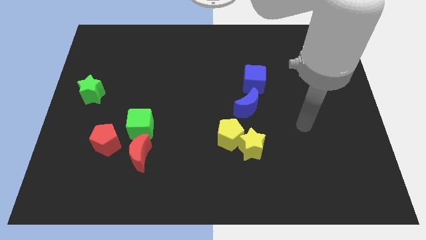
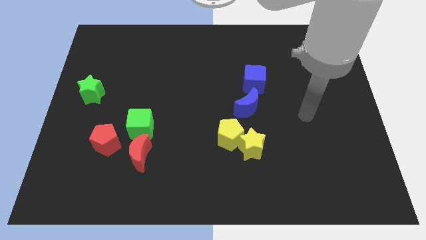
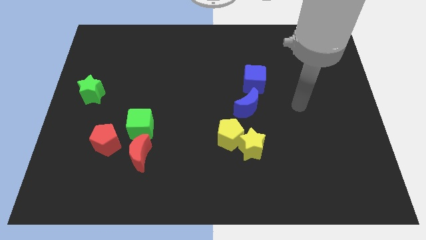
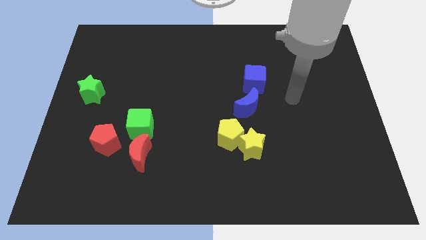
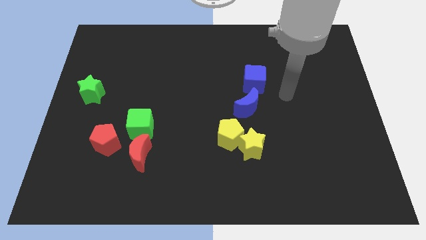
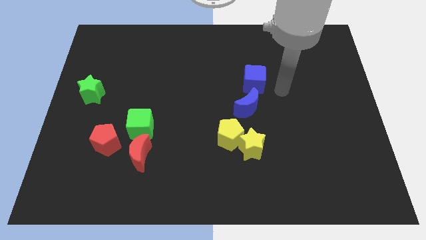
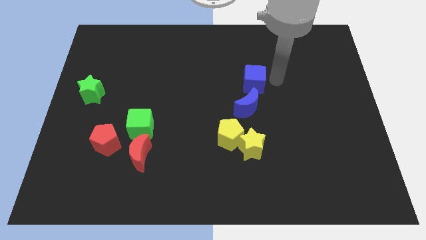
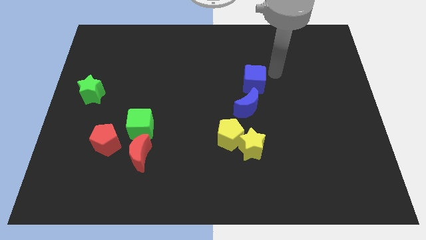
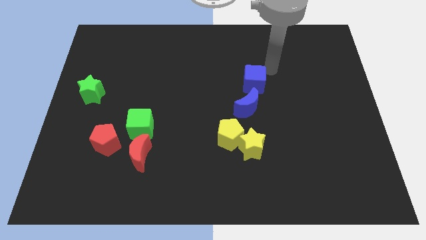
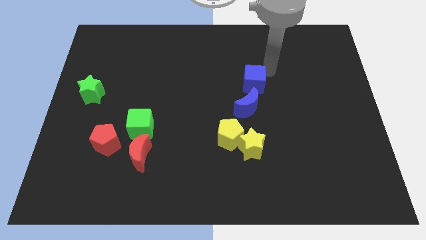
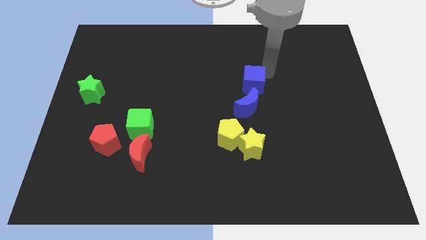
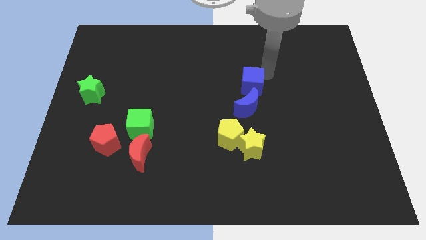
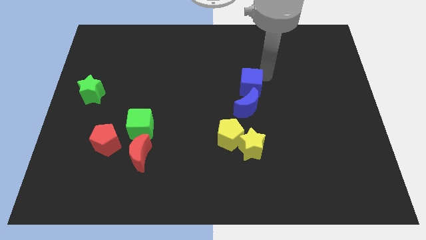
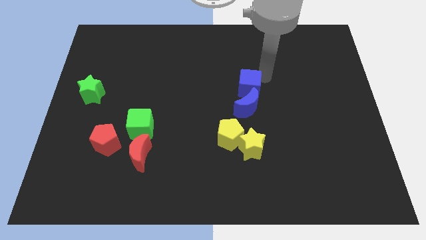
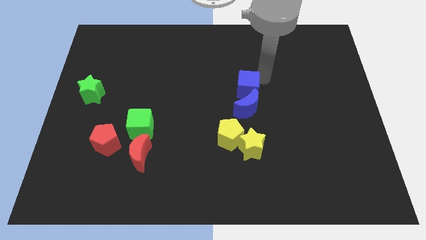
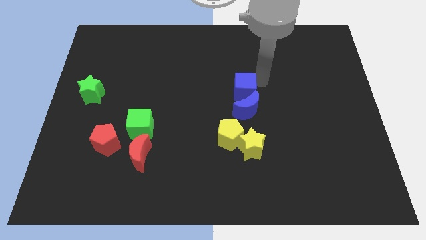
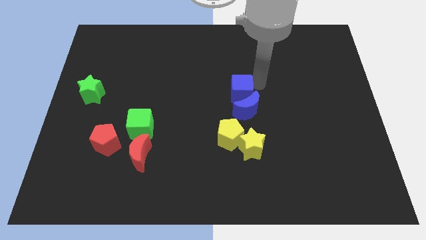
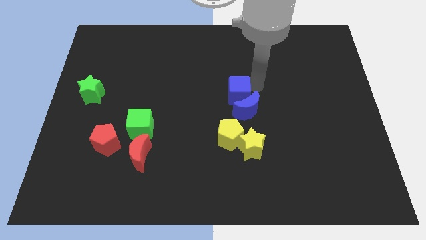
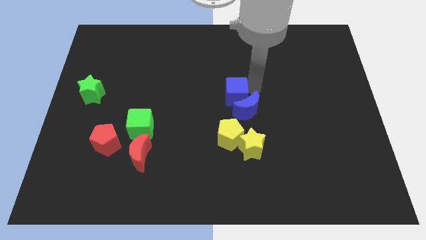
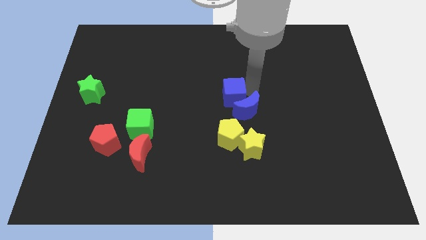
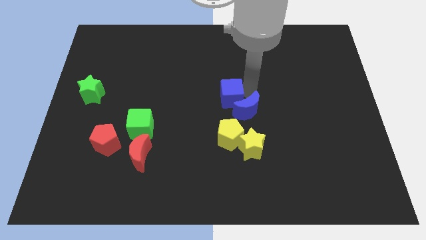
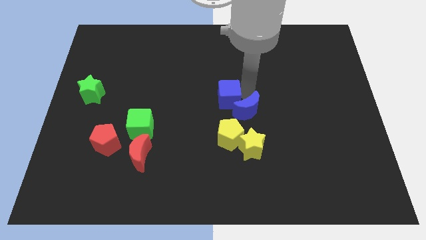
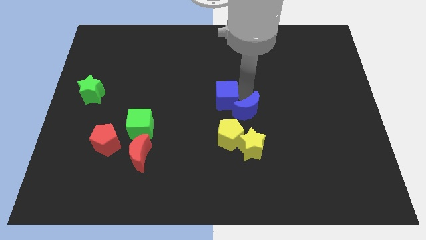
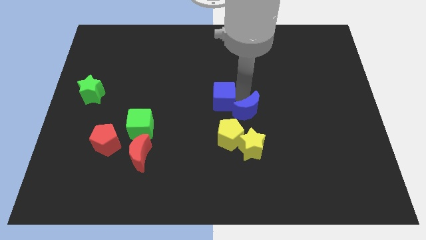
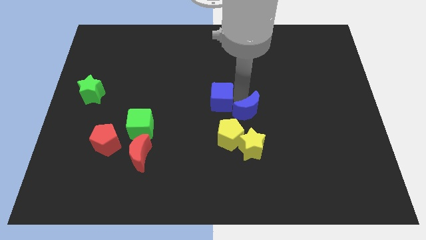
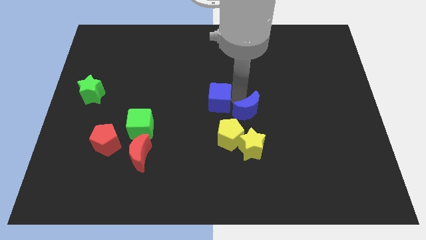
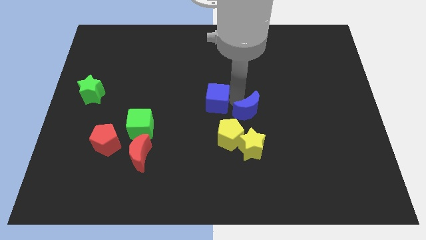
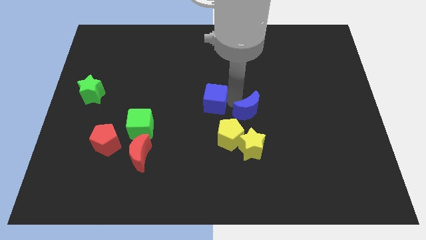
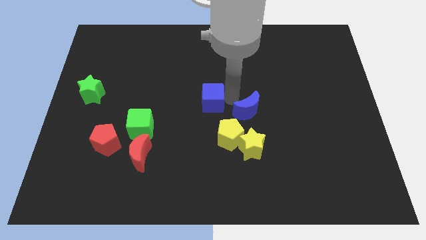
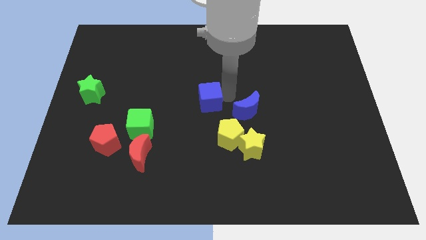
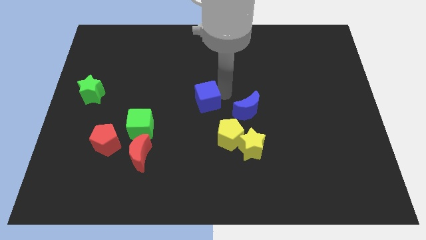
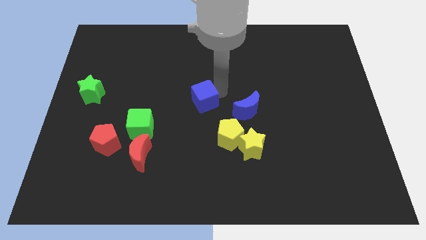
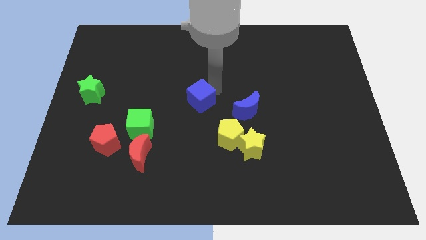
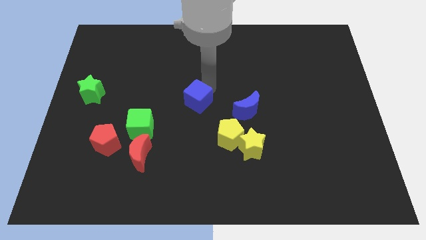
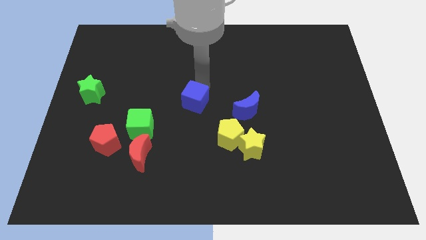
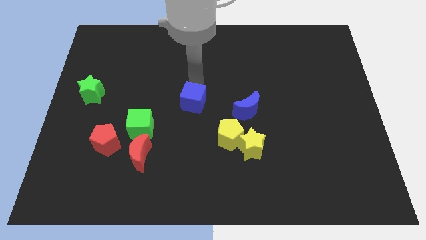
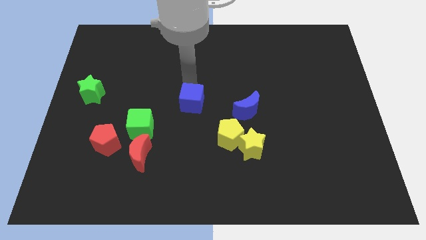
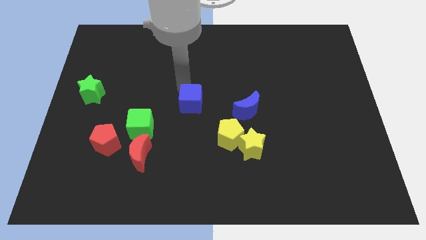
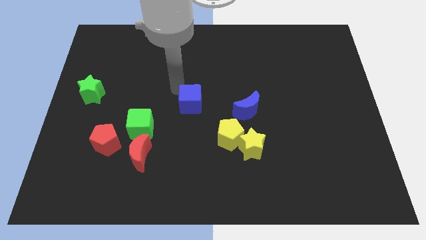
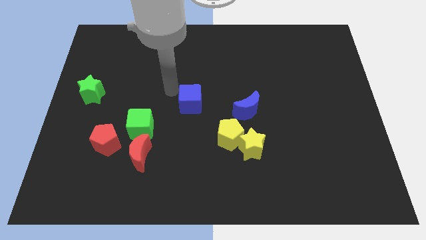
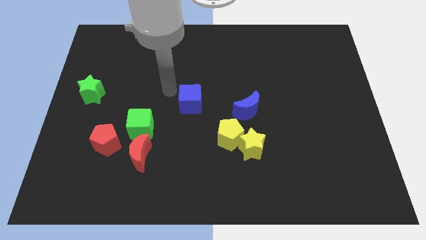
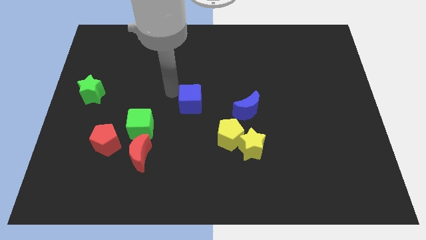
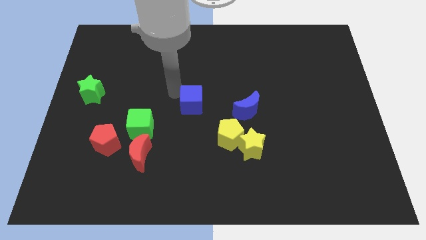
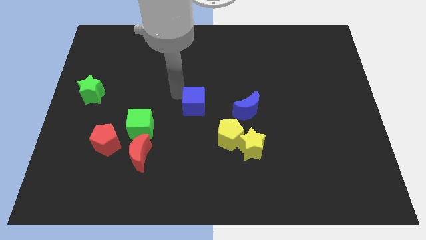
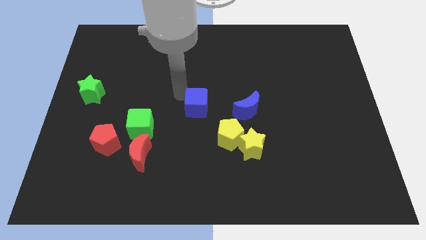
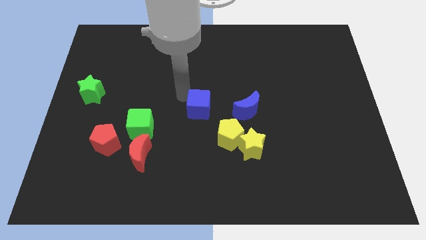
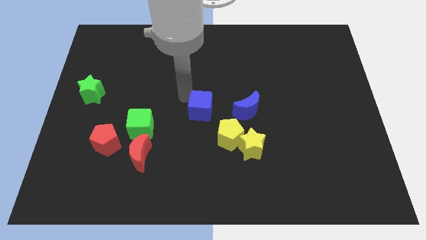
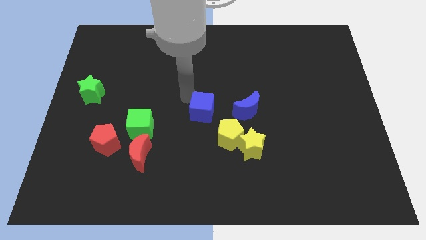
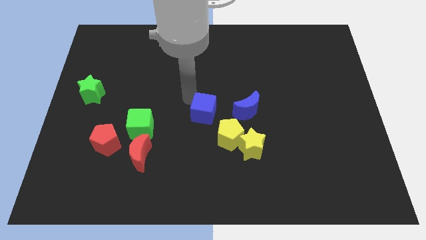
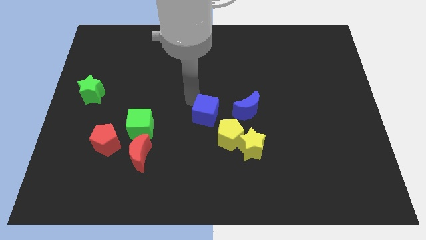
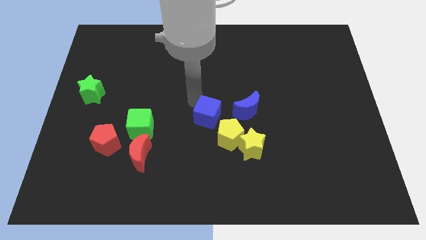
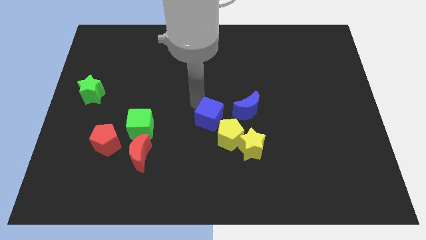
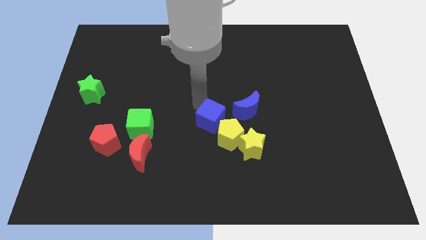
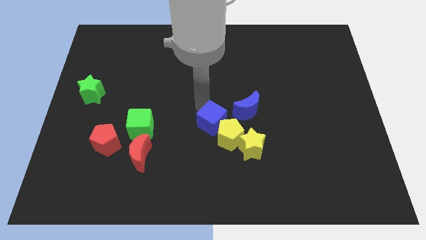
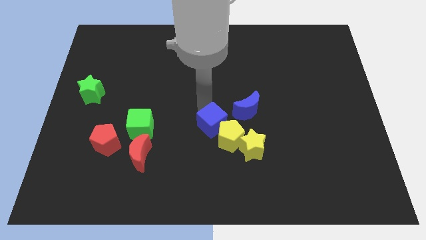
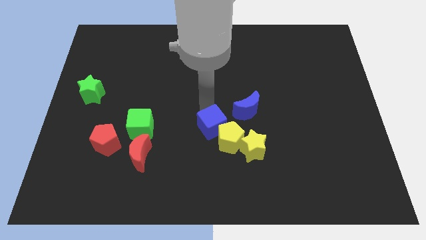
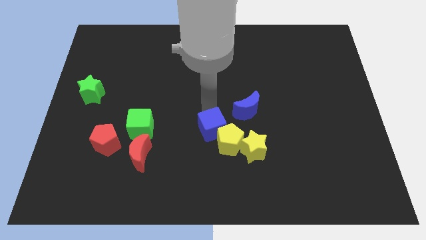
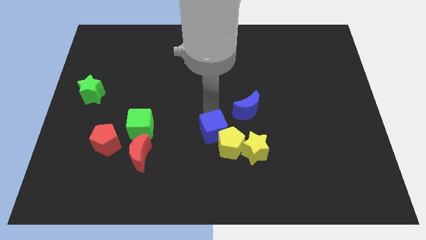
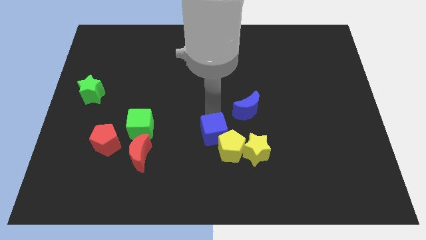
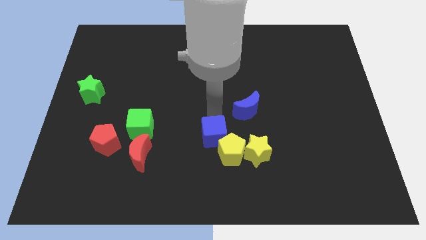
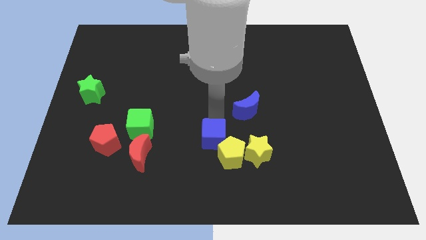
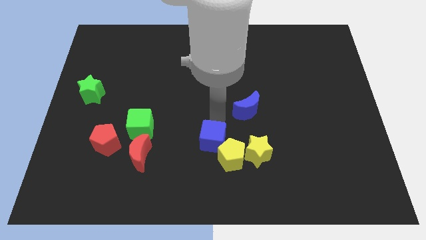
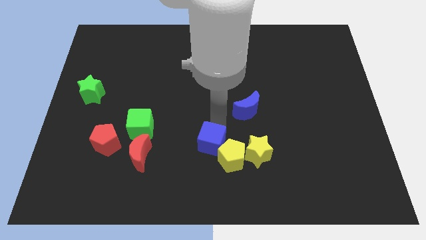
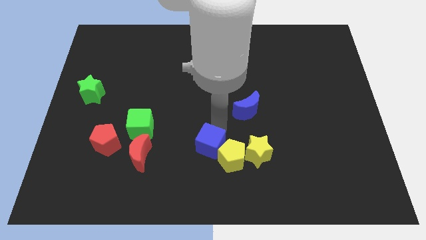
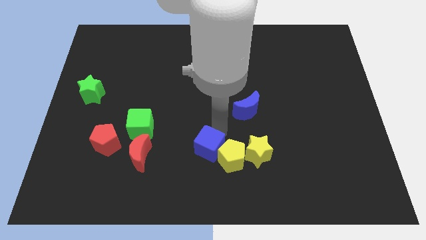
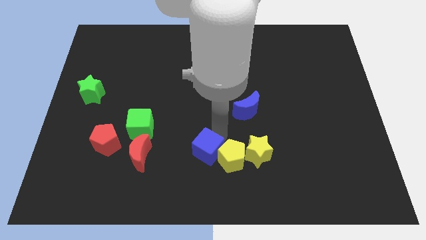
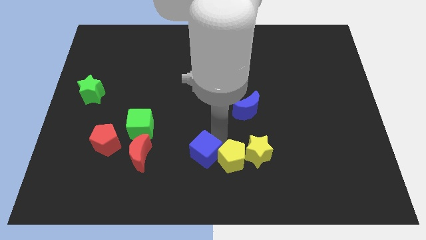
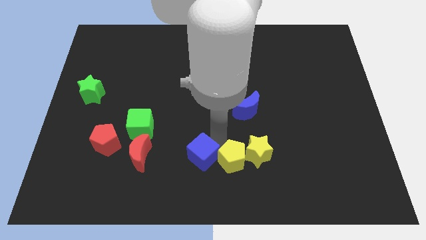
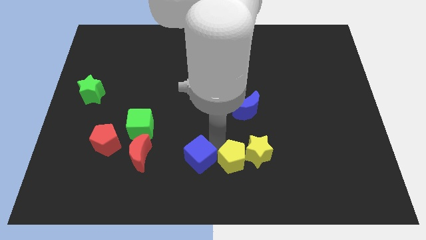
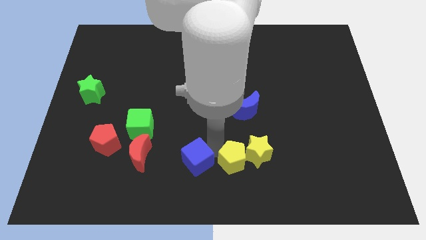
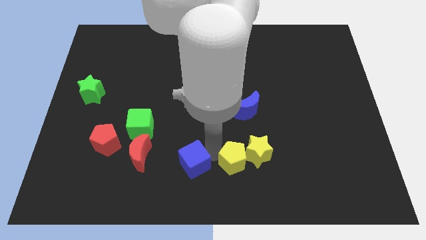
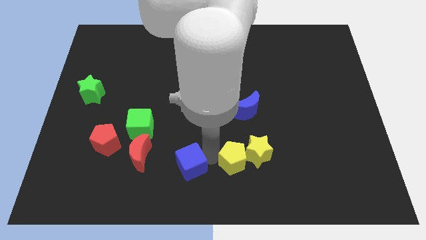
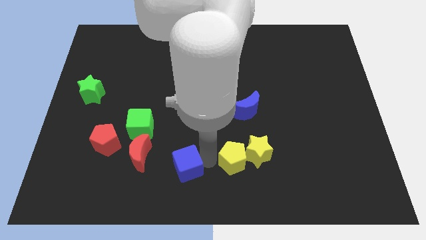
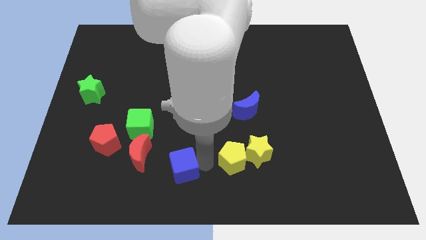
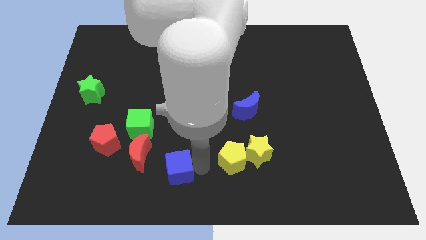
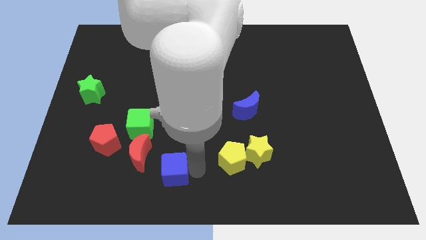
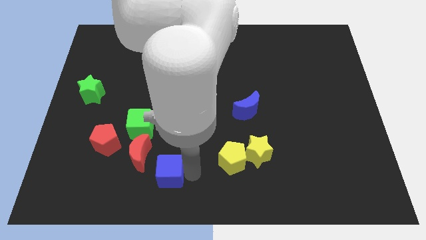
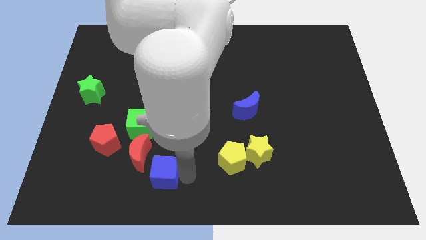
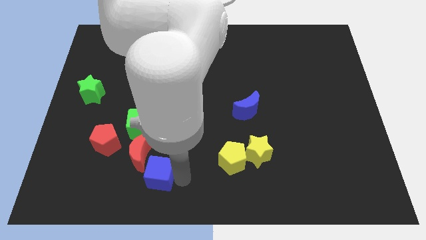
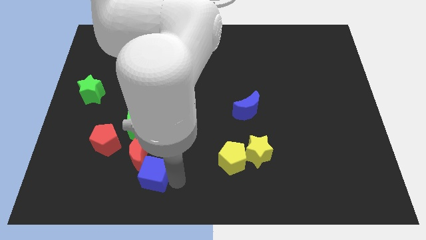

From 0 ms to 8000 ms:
put the blue cube to the red moon
